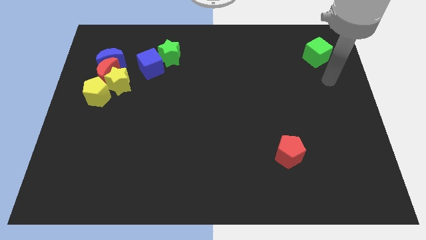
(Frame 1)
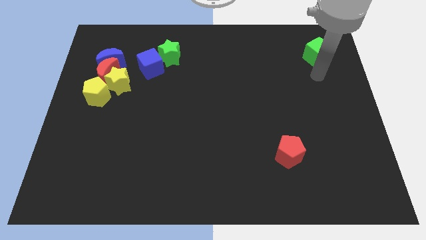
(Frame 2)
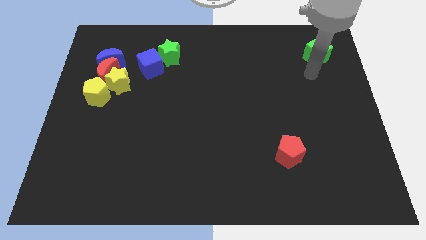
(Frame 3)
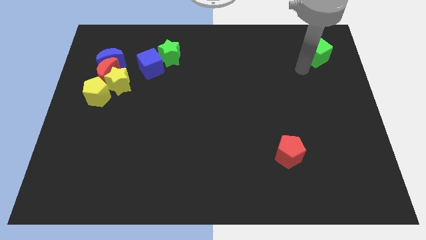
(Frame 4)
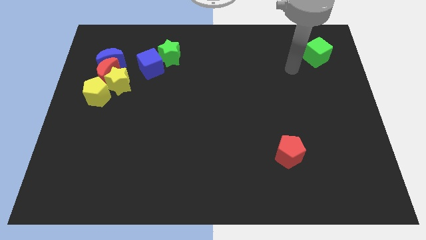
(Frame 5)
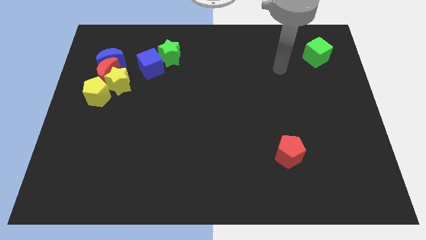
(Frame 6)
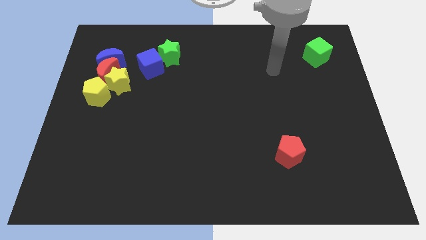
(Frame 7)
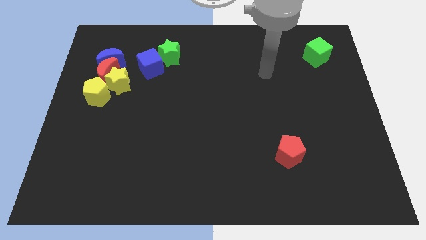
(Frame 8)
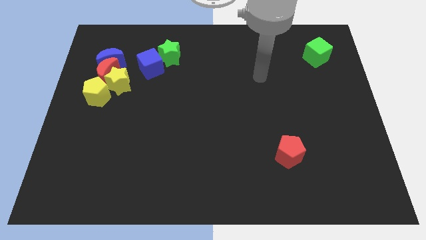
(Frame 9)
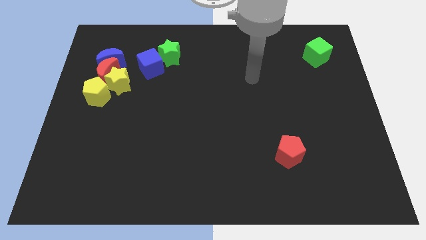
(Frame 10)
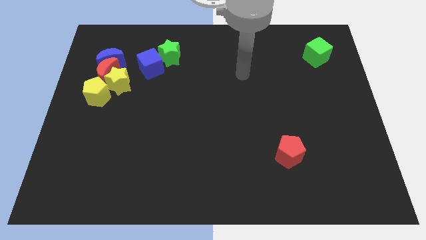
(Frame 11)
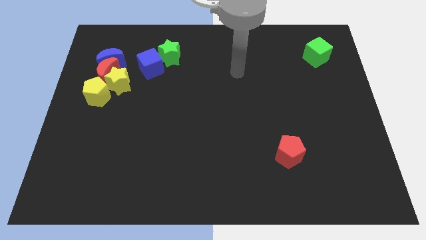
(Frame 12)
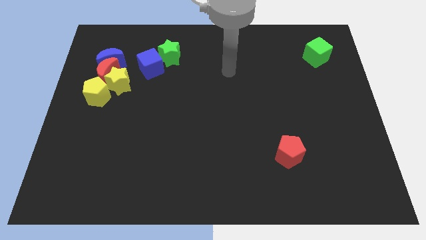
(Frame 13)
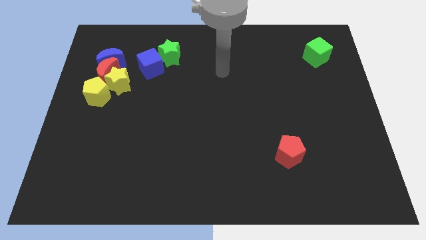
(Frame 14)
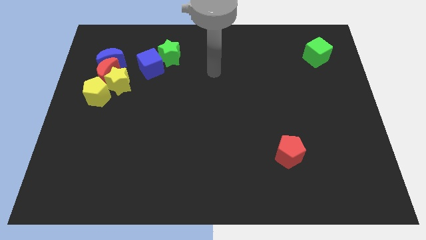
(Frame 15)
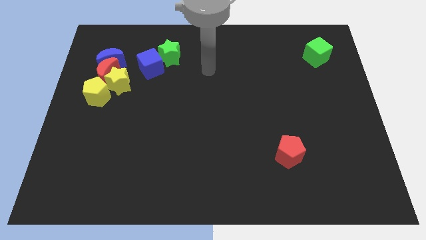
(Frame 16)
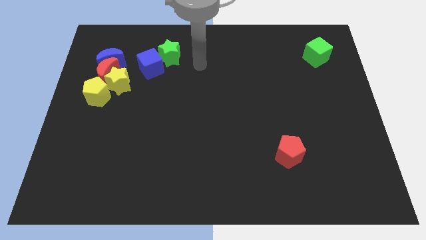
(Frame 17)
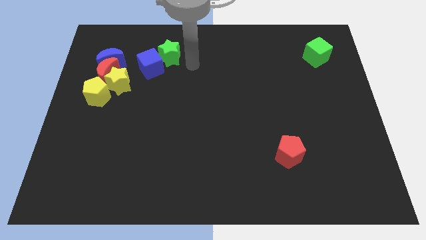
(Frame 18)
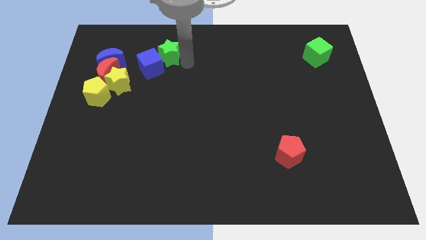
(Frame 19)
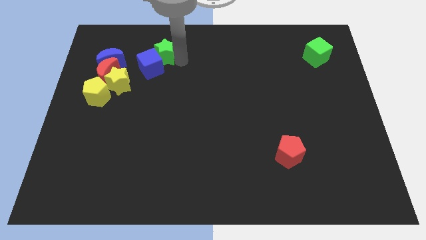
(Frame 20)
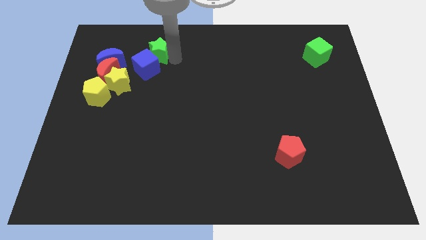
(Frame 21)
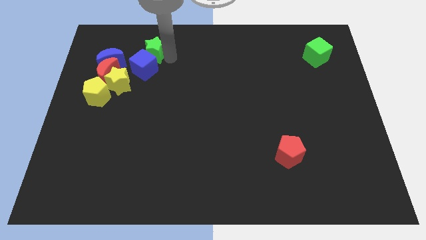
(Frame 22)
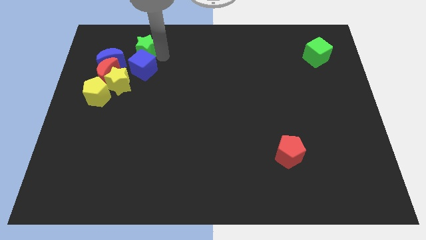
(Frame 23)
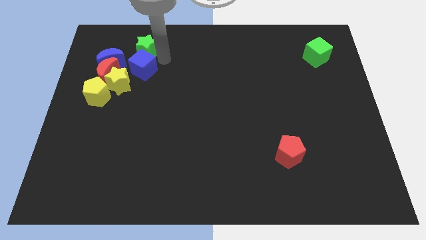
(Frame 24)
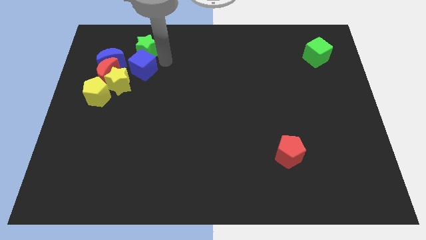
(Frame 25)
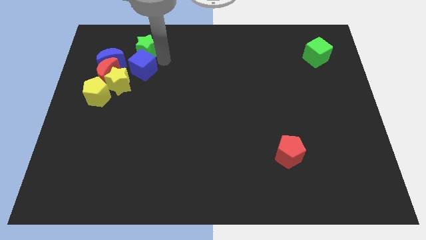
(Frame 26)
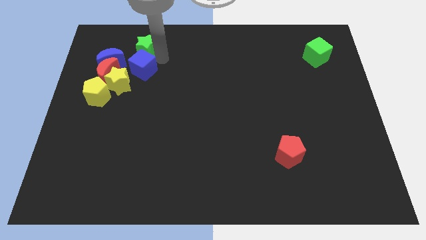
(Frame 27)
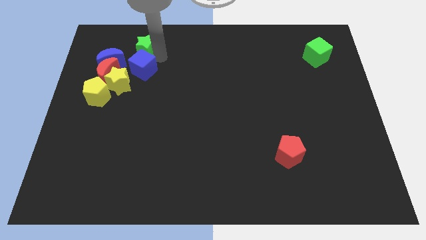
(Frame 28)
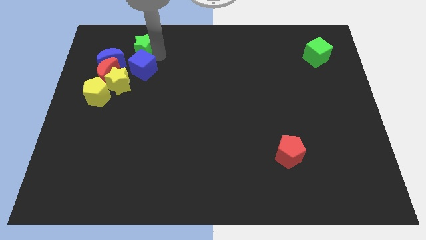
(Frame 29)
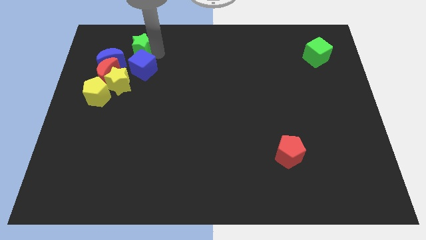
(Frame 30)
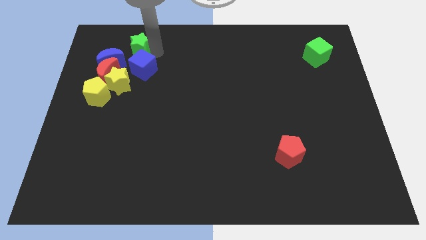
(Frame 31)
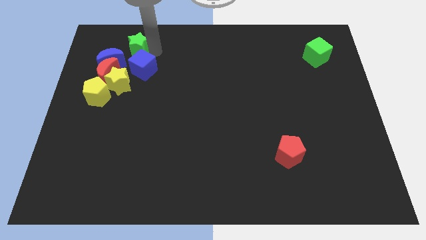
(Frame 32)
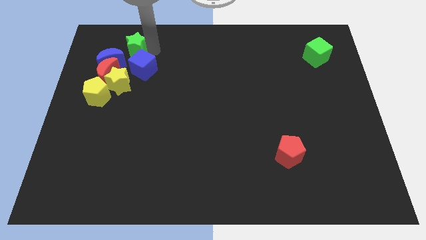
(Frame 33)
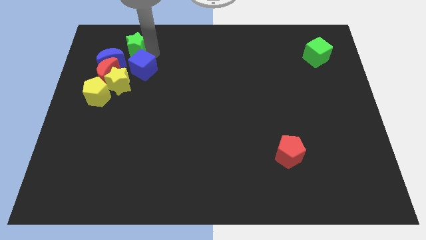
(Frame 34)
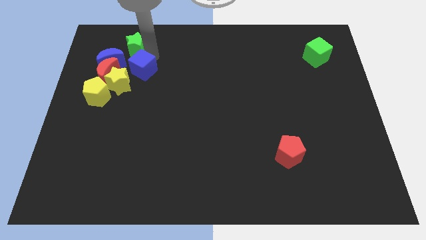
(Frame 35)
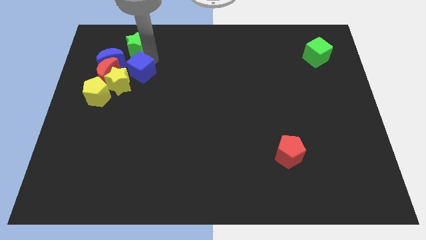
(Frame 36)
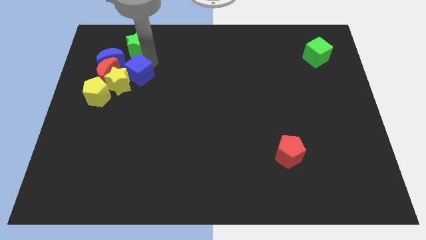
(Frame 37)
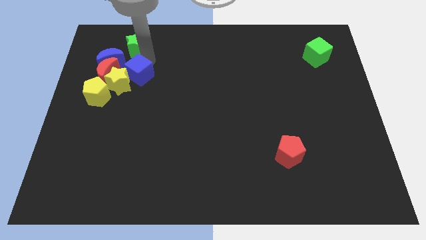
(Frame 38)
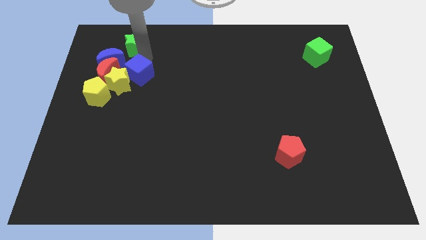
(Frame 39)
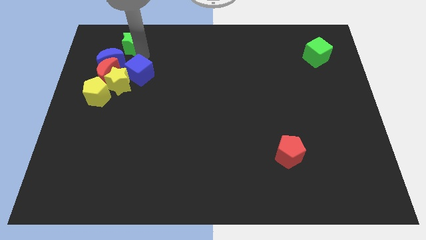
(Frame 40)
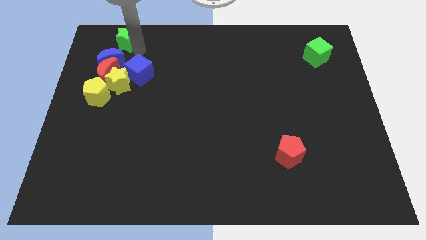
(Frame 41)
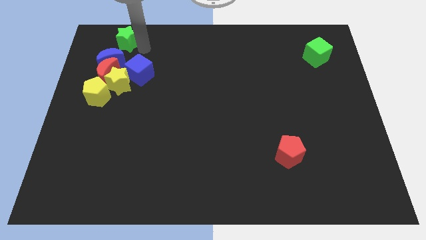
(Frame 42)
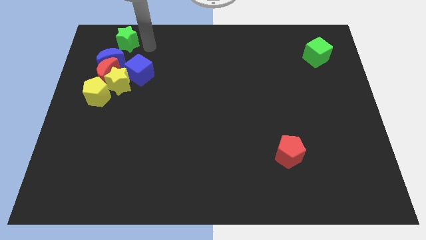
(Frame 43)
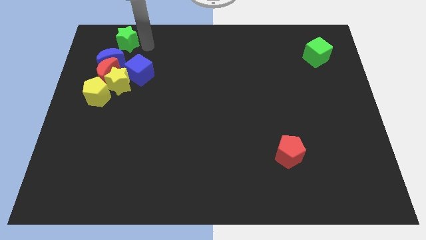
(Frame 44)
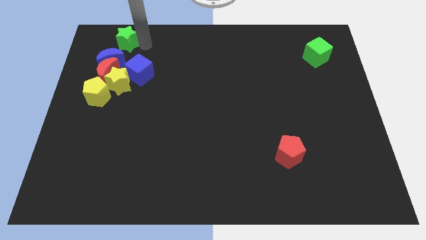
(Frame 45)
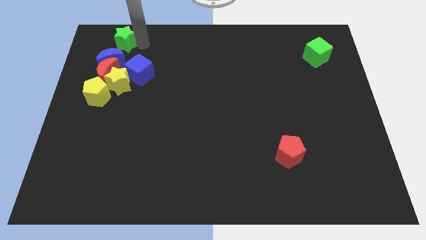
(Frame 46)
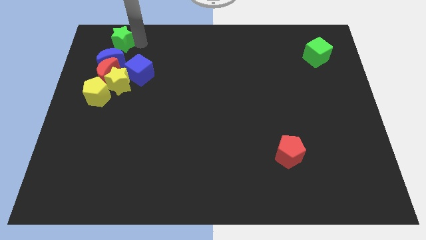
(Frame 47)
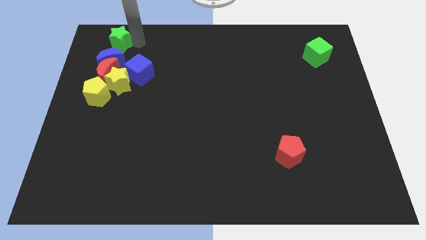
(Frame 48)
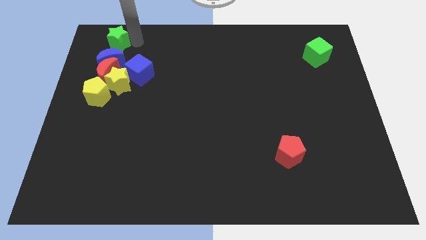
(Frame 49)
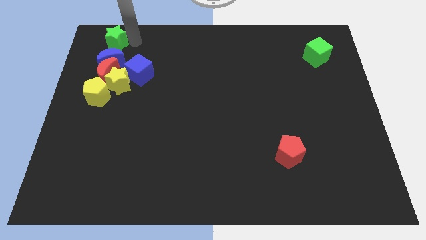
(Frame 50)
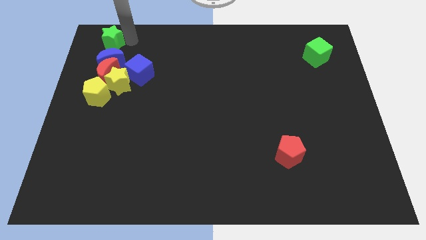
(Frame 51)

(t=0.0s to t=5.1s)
move the green star to the top left

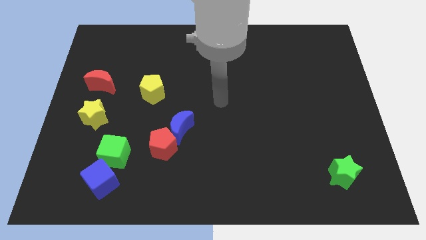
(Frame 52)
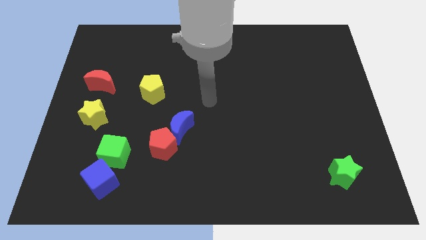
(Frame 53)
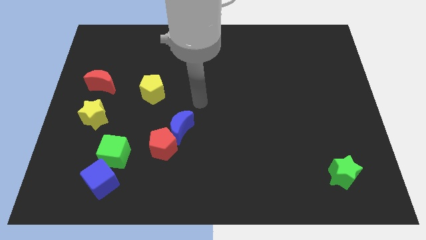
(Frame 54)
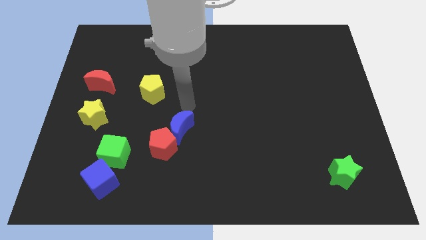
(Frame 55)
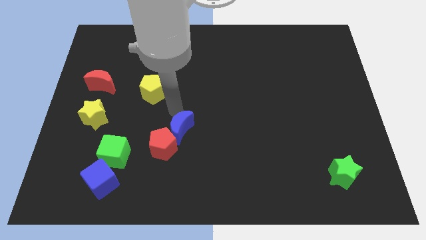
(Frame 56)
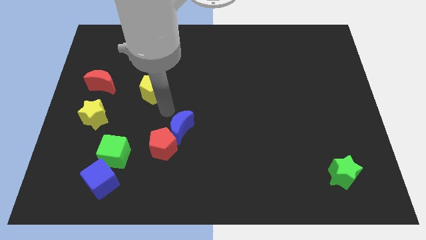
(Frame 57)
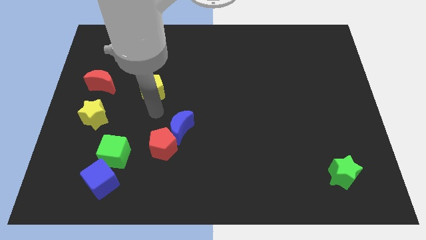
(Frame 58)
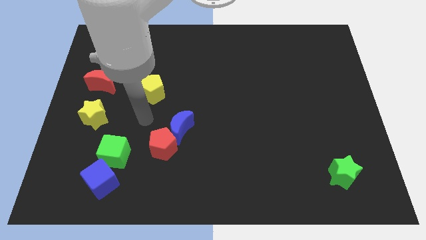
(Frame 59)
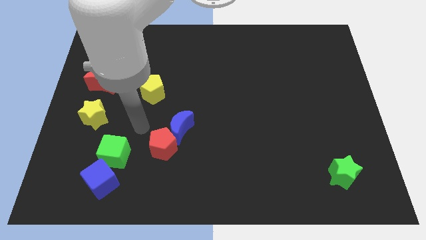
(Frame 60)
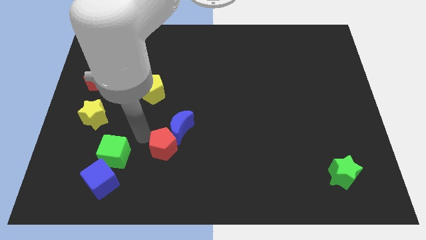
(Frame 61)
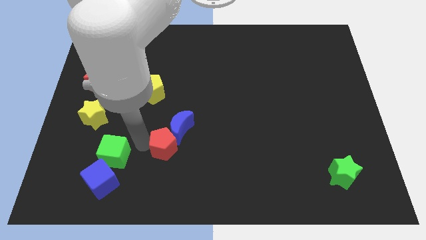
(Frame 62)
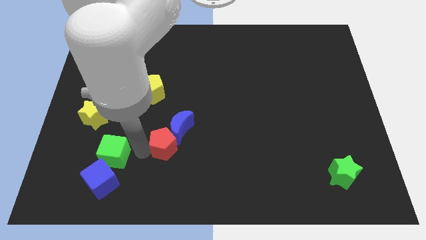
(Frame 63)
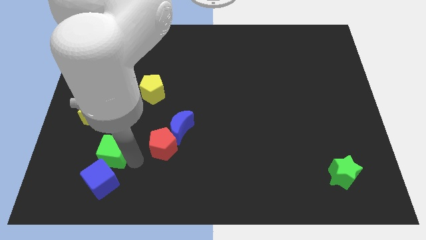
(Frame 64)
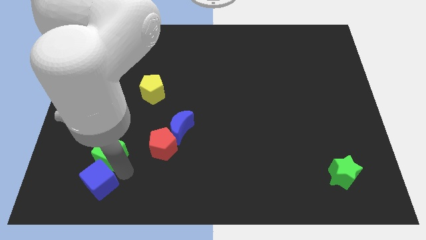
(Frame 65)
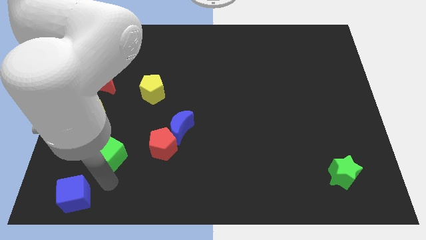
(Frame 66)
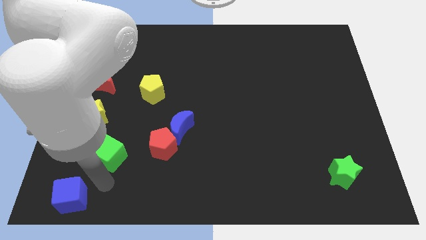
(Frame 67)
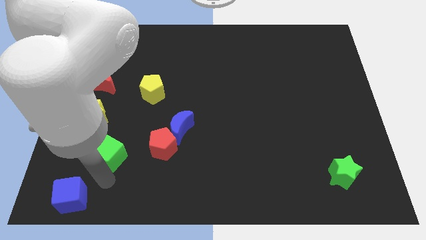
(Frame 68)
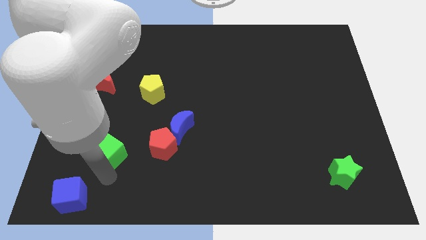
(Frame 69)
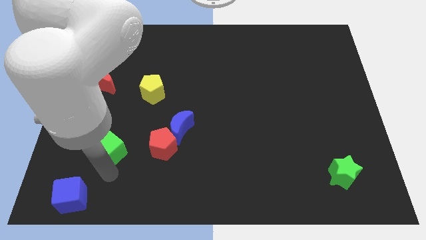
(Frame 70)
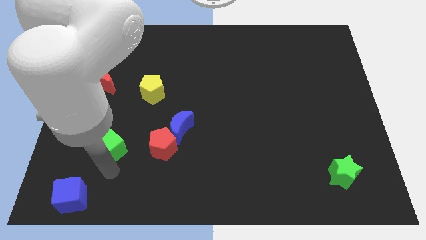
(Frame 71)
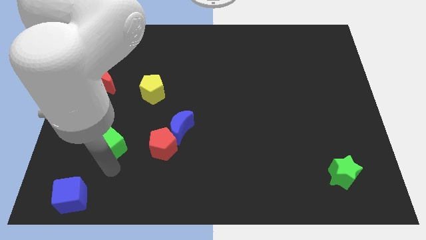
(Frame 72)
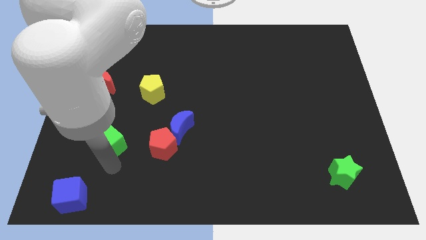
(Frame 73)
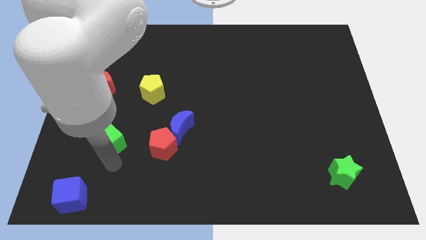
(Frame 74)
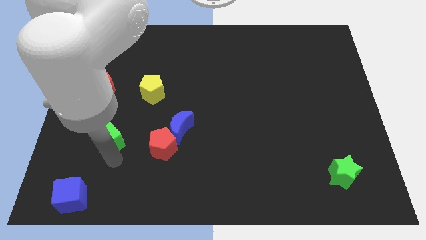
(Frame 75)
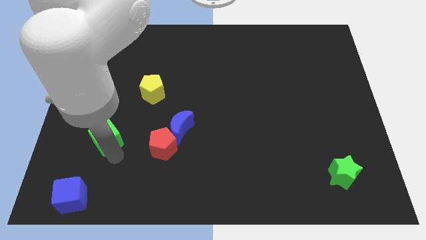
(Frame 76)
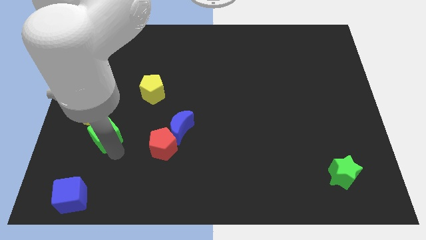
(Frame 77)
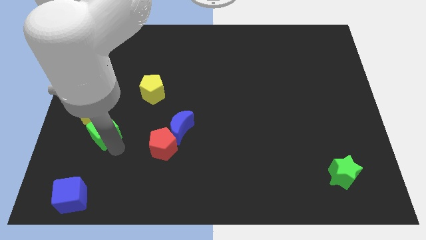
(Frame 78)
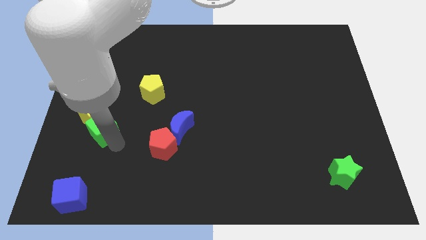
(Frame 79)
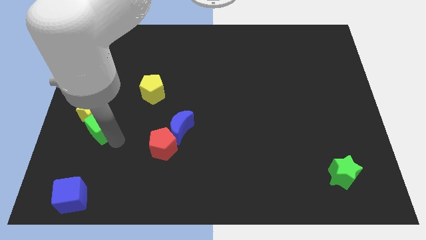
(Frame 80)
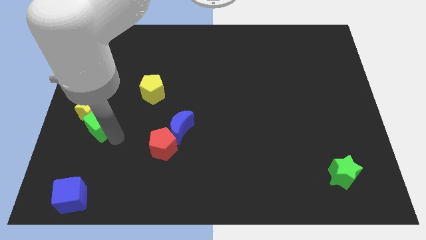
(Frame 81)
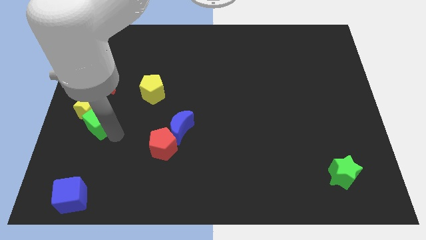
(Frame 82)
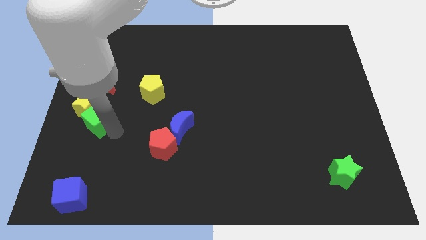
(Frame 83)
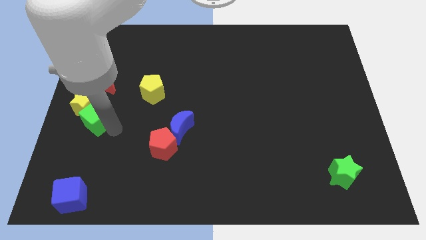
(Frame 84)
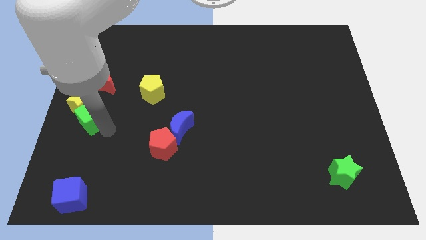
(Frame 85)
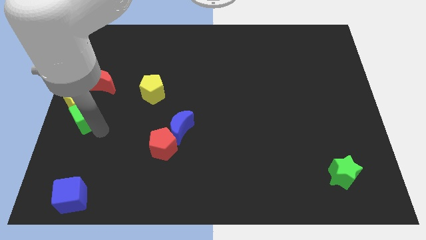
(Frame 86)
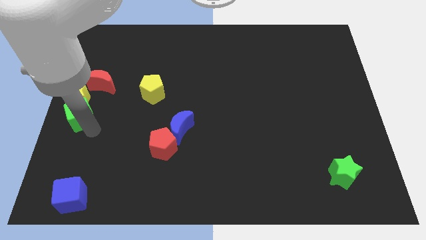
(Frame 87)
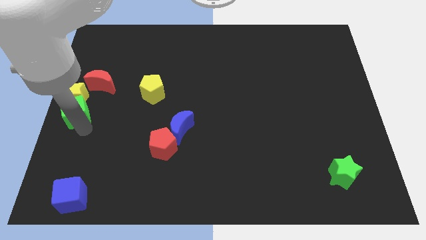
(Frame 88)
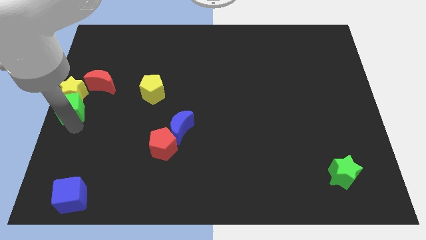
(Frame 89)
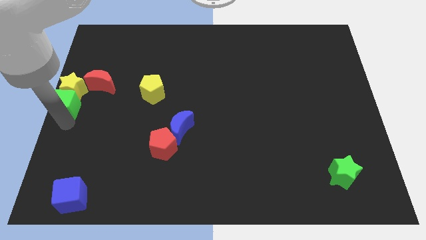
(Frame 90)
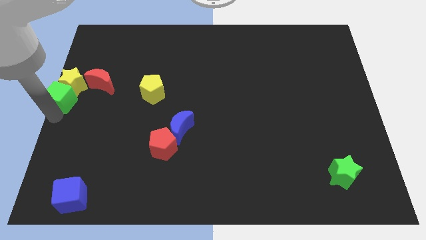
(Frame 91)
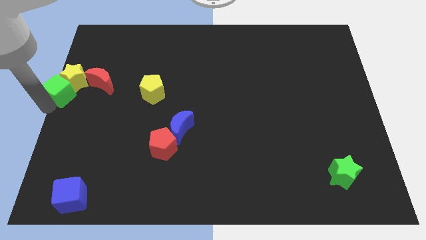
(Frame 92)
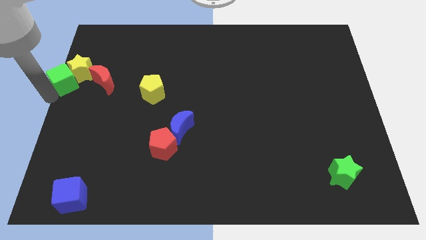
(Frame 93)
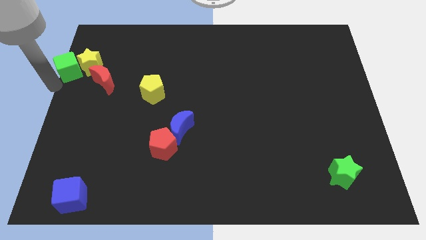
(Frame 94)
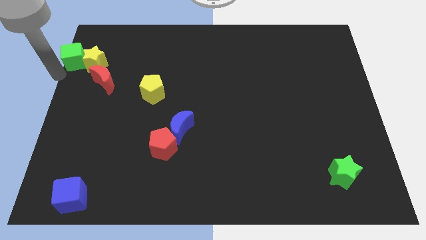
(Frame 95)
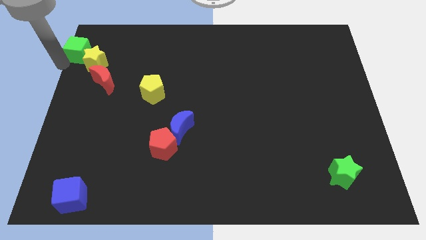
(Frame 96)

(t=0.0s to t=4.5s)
push the green cube to the top left corner
